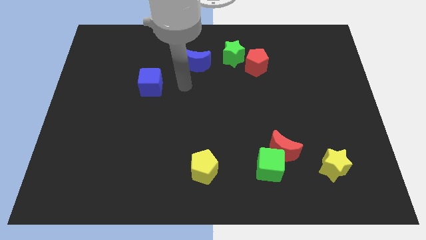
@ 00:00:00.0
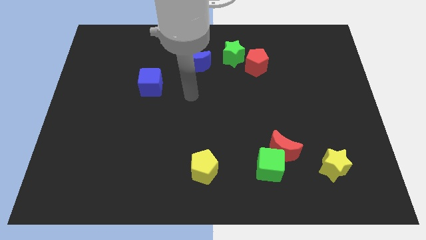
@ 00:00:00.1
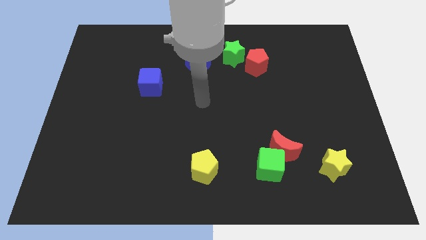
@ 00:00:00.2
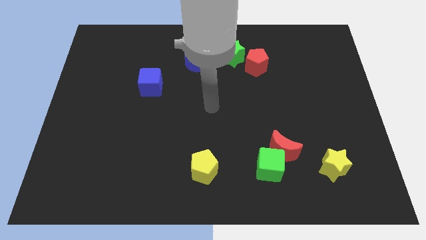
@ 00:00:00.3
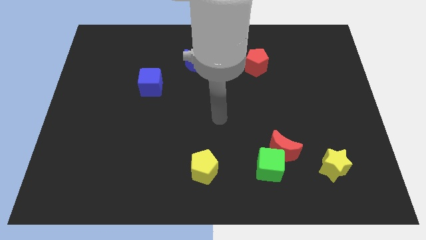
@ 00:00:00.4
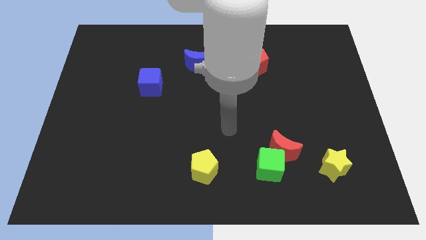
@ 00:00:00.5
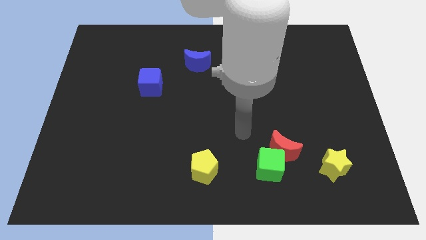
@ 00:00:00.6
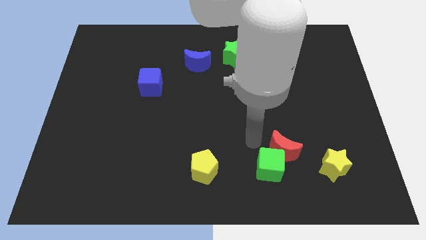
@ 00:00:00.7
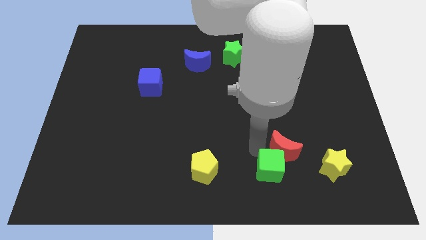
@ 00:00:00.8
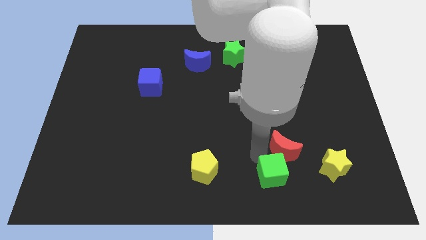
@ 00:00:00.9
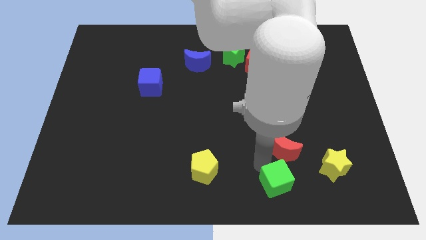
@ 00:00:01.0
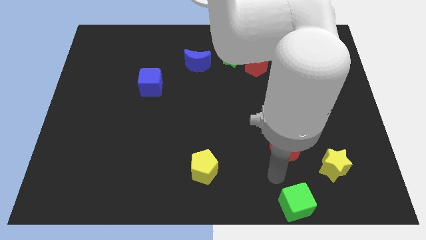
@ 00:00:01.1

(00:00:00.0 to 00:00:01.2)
move the red moon away from the green cube

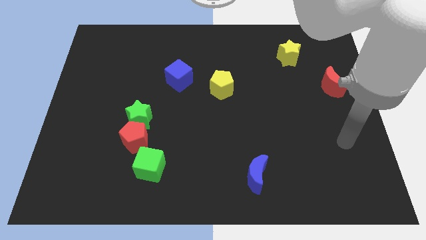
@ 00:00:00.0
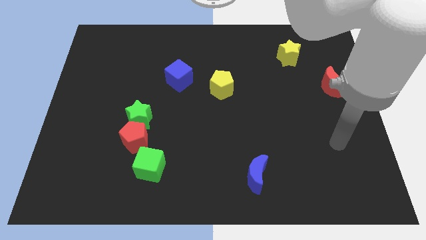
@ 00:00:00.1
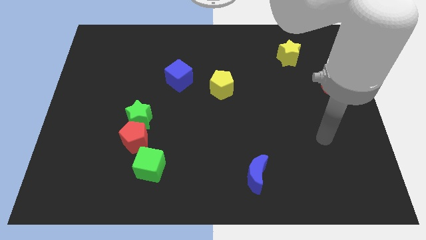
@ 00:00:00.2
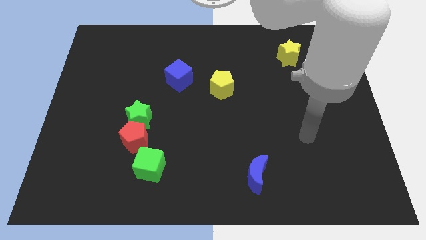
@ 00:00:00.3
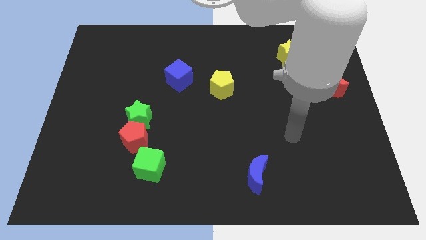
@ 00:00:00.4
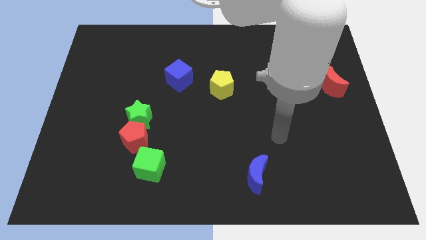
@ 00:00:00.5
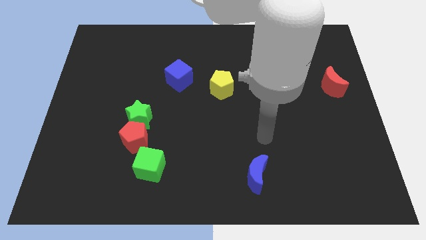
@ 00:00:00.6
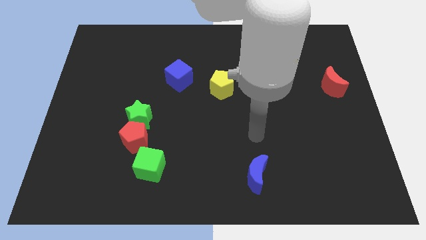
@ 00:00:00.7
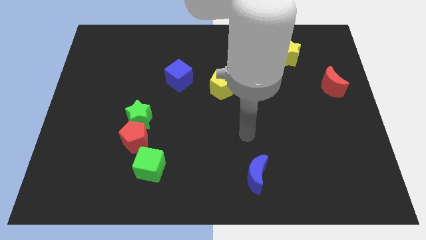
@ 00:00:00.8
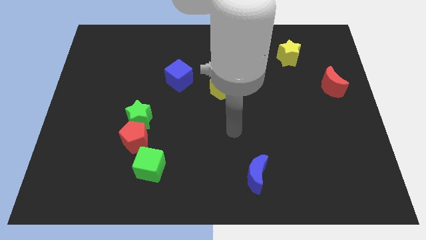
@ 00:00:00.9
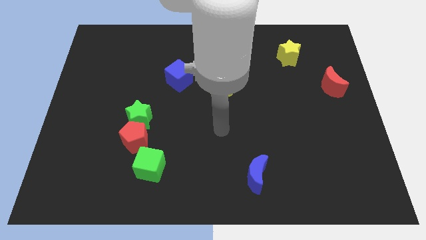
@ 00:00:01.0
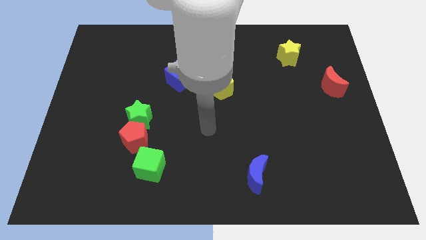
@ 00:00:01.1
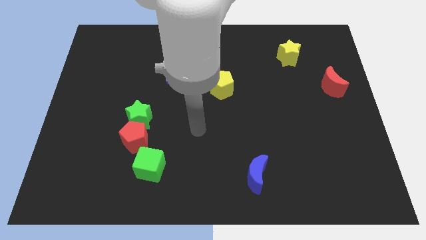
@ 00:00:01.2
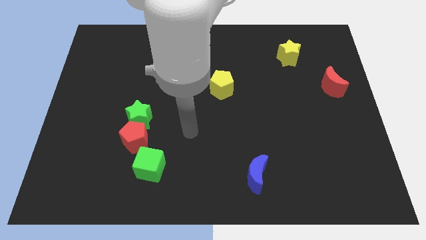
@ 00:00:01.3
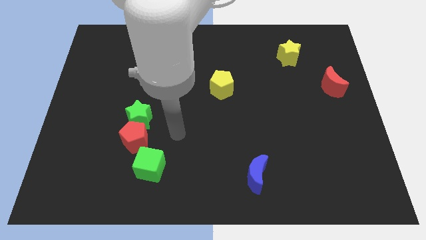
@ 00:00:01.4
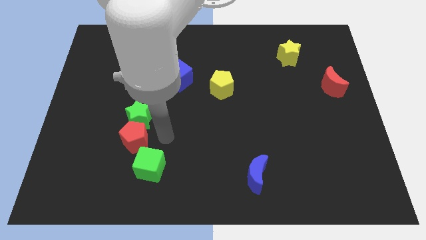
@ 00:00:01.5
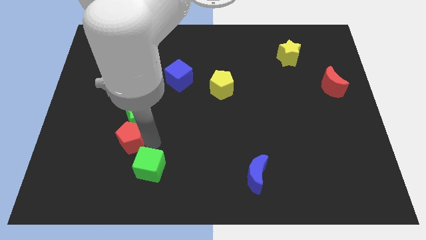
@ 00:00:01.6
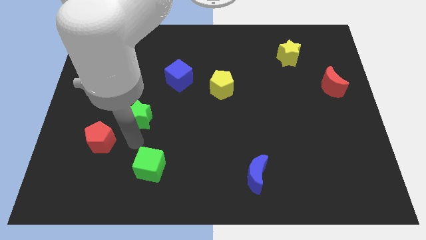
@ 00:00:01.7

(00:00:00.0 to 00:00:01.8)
separate the green star from the red pentagon

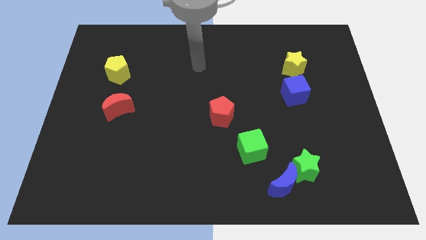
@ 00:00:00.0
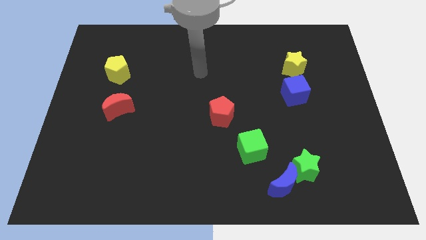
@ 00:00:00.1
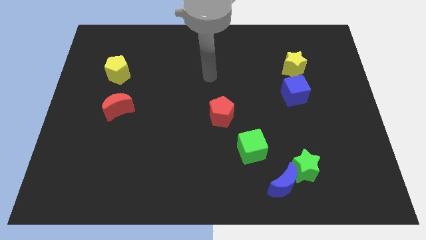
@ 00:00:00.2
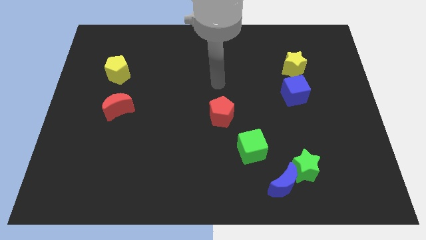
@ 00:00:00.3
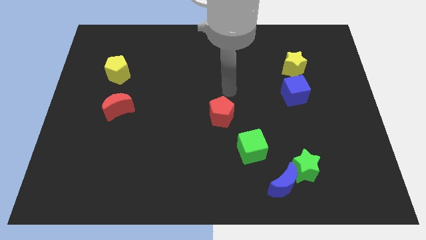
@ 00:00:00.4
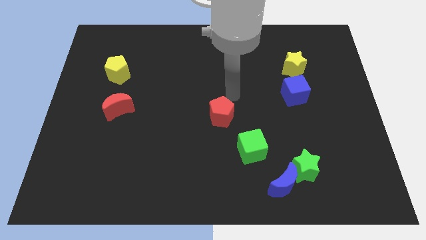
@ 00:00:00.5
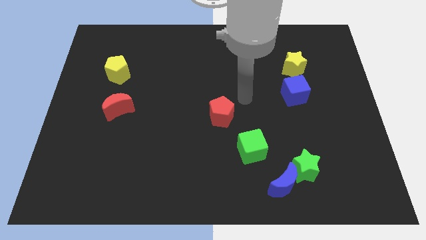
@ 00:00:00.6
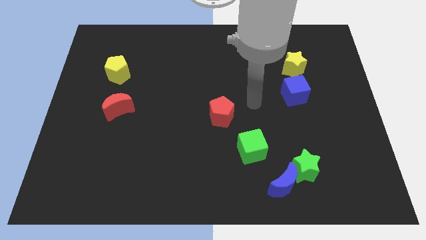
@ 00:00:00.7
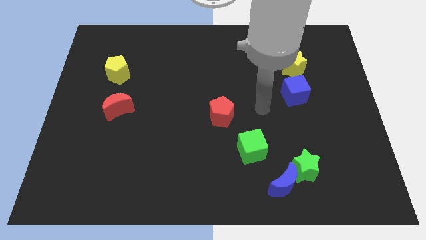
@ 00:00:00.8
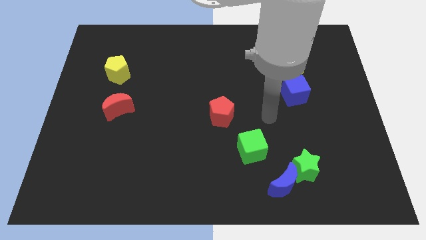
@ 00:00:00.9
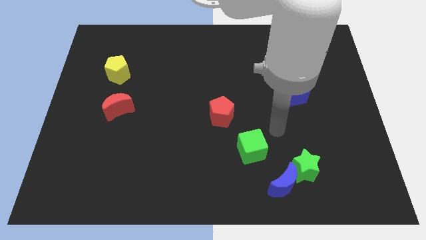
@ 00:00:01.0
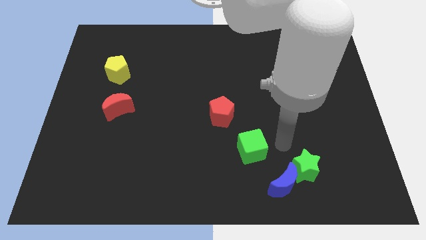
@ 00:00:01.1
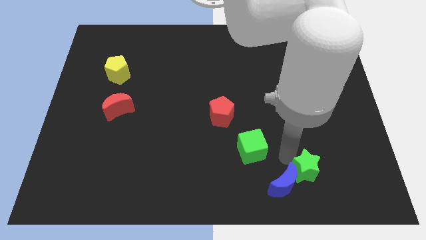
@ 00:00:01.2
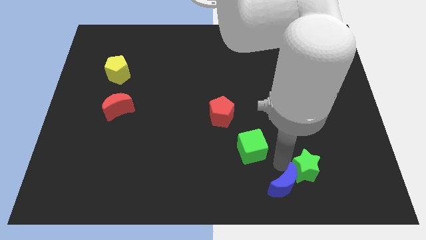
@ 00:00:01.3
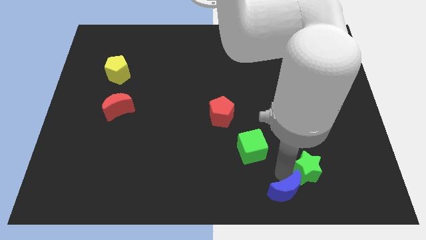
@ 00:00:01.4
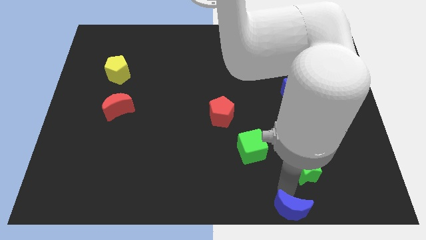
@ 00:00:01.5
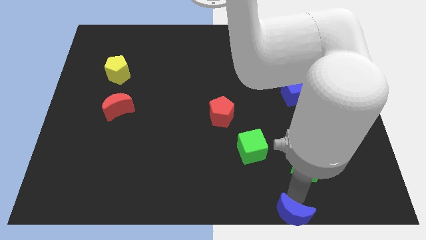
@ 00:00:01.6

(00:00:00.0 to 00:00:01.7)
move the green star away from the blue moon

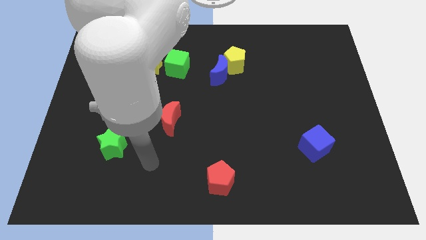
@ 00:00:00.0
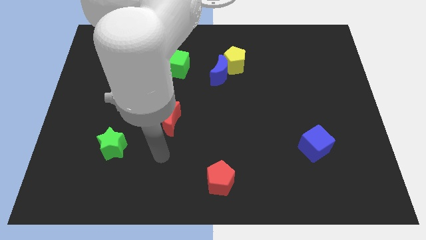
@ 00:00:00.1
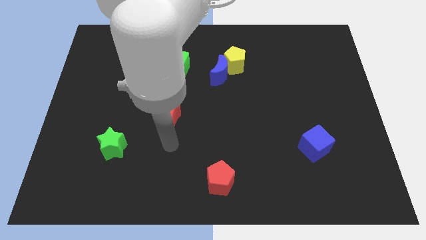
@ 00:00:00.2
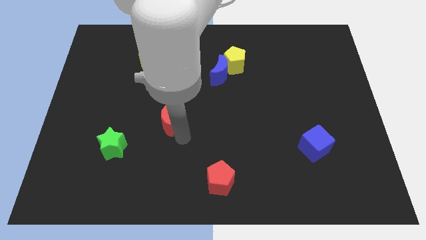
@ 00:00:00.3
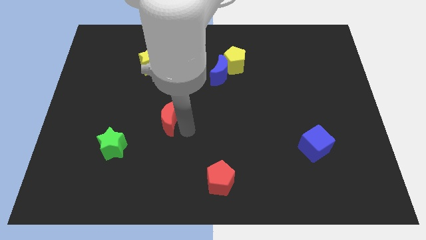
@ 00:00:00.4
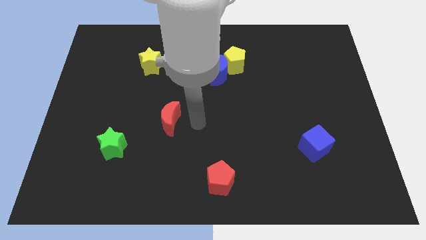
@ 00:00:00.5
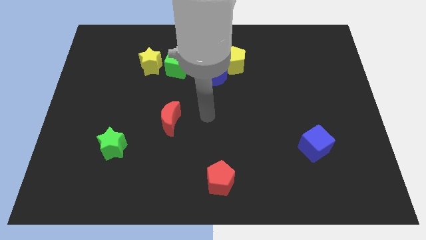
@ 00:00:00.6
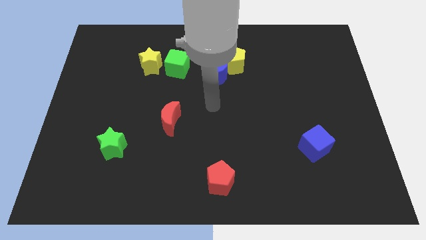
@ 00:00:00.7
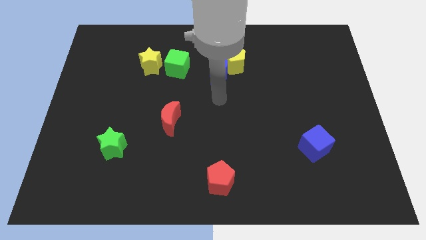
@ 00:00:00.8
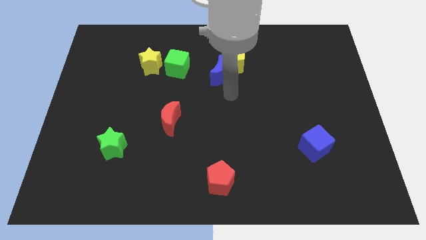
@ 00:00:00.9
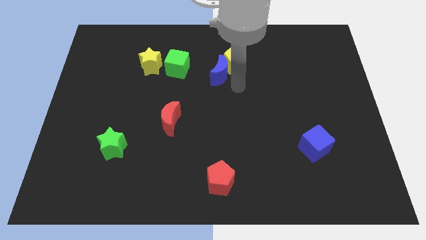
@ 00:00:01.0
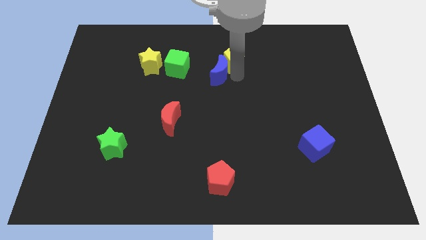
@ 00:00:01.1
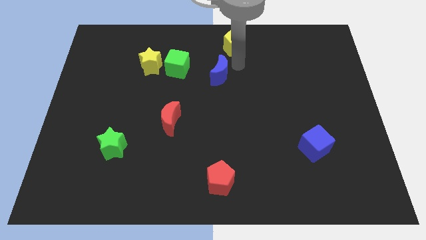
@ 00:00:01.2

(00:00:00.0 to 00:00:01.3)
pull the blue moon apart from the yellow pentagon

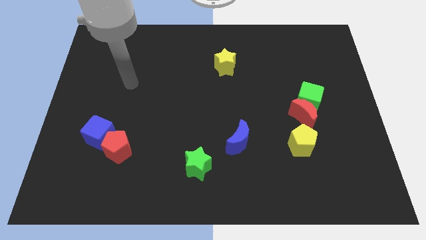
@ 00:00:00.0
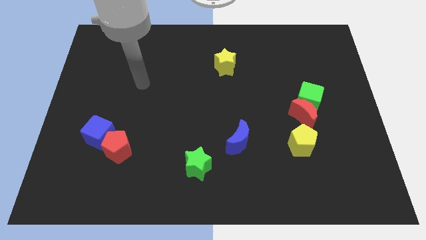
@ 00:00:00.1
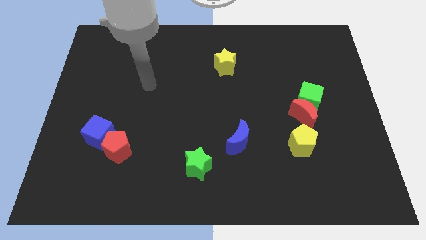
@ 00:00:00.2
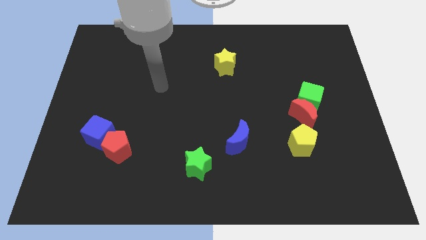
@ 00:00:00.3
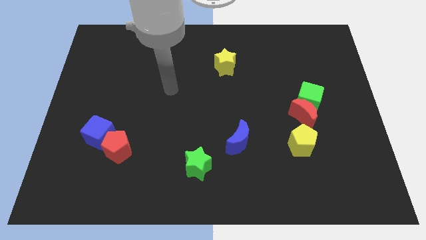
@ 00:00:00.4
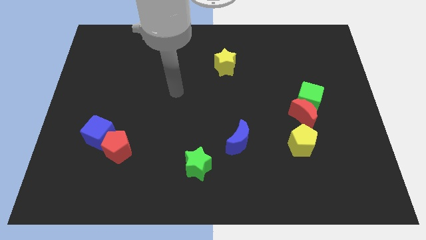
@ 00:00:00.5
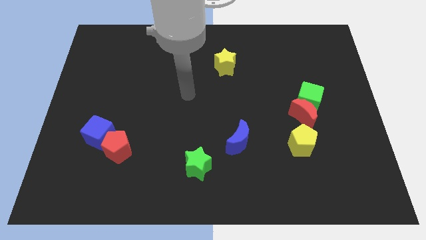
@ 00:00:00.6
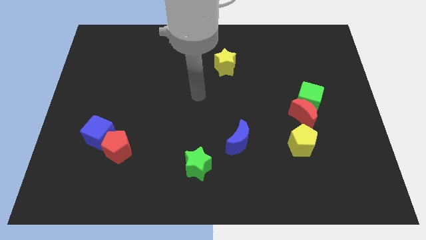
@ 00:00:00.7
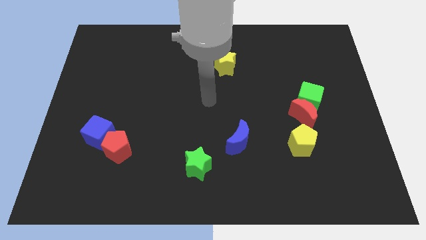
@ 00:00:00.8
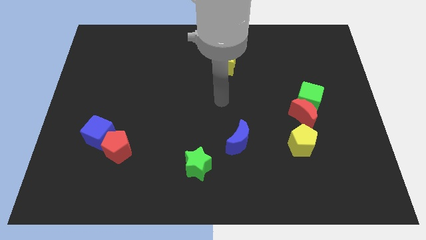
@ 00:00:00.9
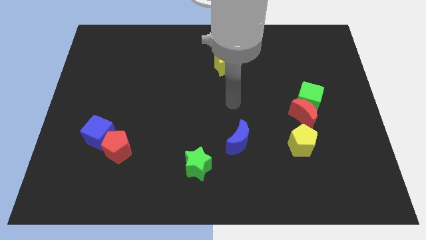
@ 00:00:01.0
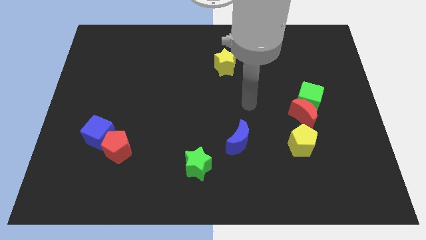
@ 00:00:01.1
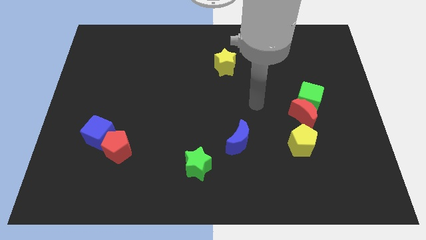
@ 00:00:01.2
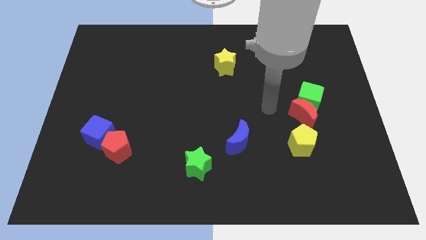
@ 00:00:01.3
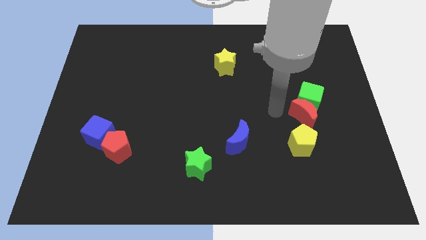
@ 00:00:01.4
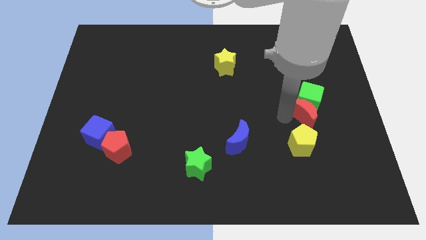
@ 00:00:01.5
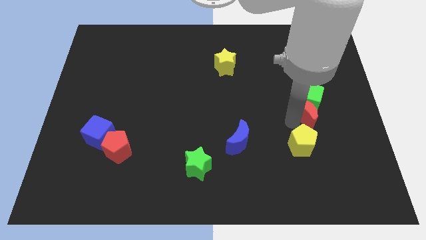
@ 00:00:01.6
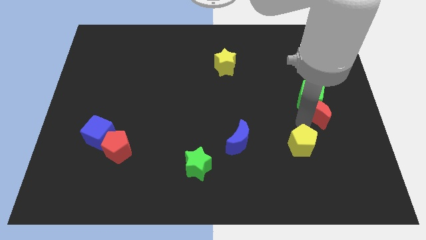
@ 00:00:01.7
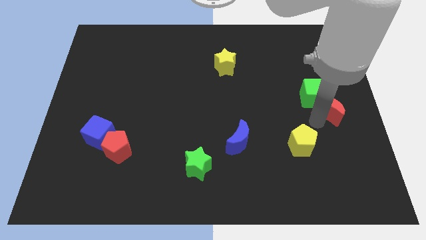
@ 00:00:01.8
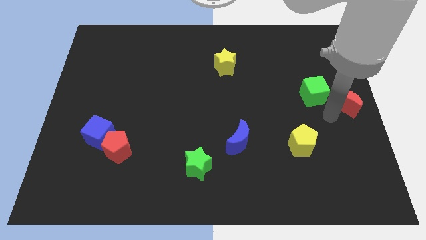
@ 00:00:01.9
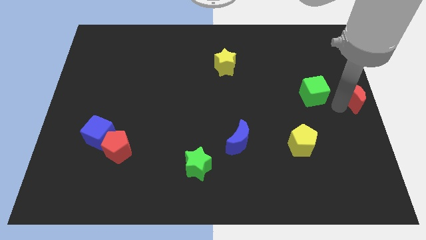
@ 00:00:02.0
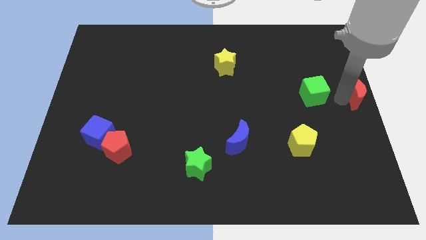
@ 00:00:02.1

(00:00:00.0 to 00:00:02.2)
pull the green cube apart from the red moon

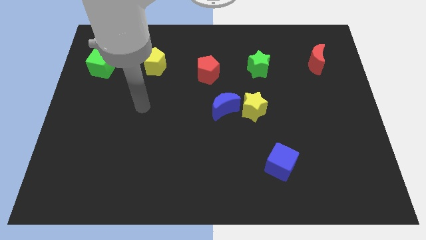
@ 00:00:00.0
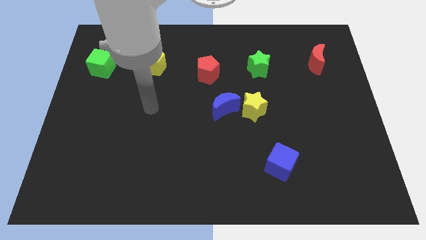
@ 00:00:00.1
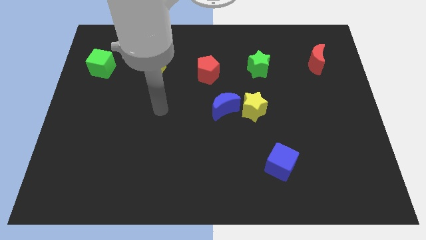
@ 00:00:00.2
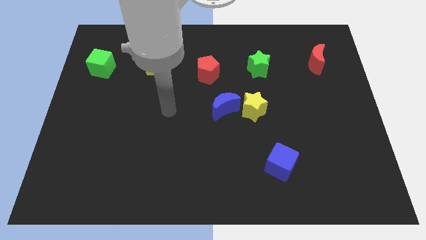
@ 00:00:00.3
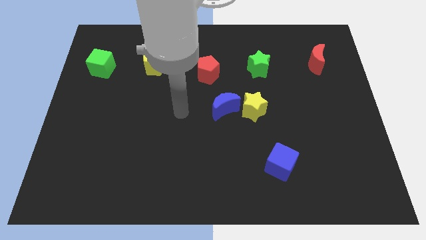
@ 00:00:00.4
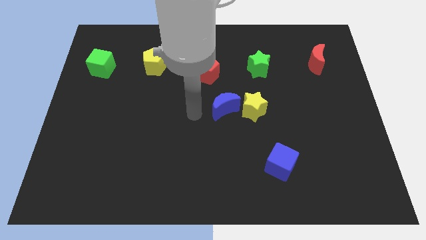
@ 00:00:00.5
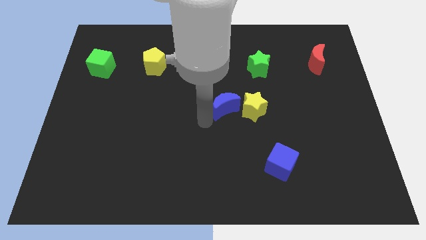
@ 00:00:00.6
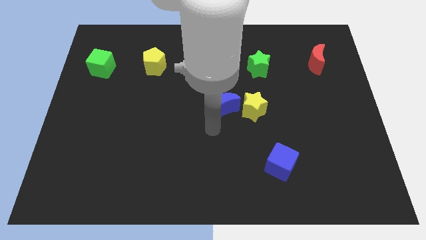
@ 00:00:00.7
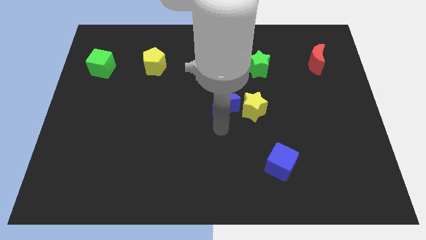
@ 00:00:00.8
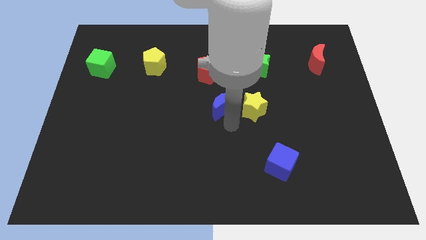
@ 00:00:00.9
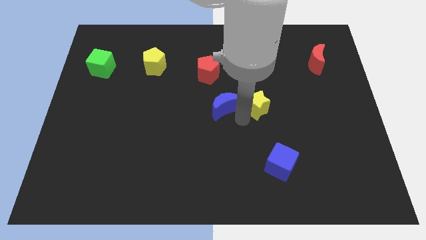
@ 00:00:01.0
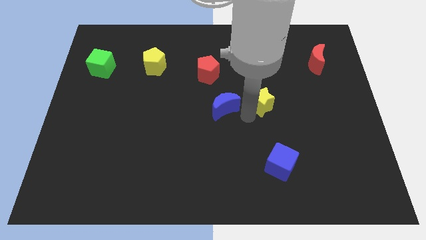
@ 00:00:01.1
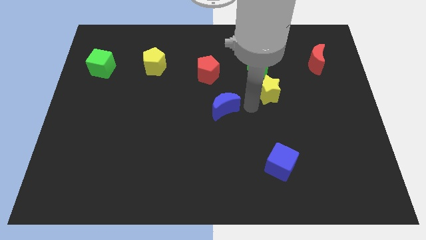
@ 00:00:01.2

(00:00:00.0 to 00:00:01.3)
move the blue moon away from the yellow star
